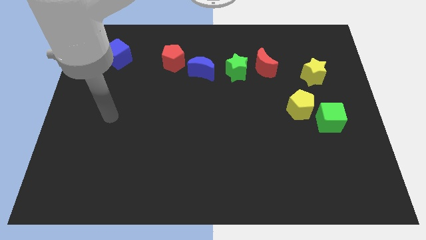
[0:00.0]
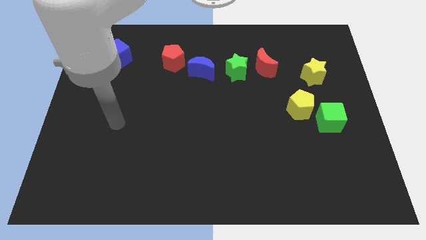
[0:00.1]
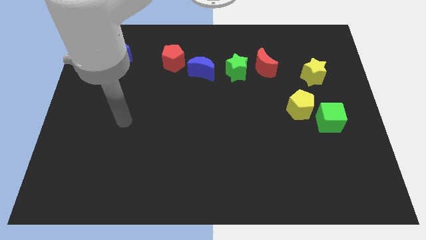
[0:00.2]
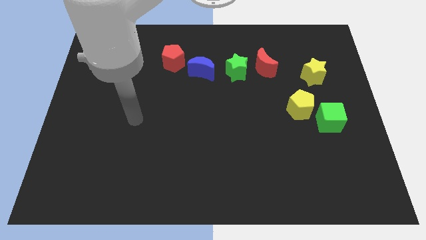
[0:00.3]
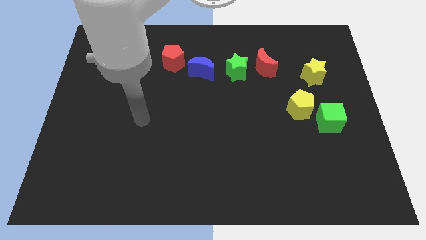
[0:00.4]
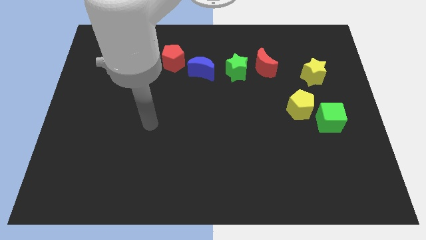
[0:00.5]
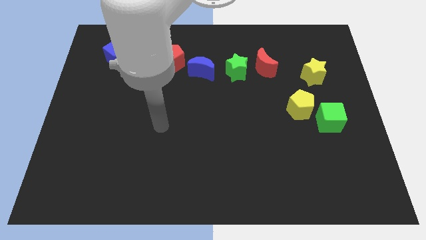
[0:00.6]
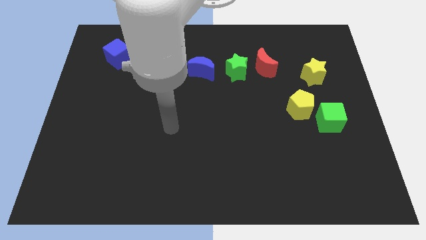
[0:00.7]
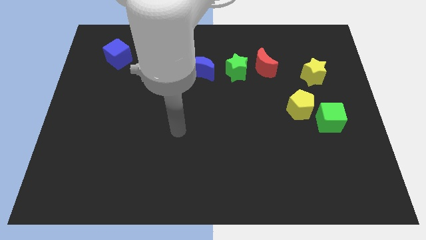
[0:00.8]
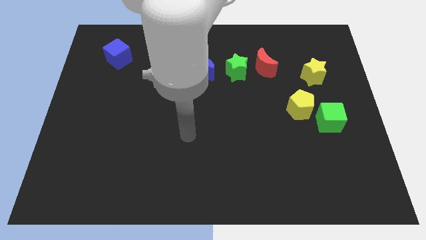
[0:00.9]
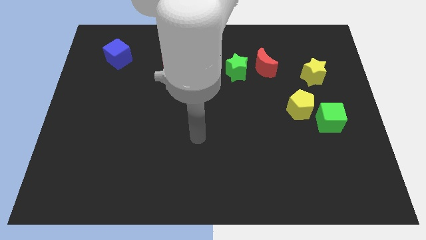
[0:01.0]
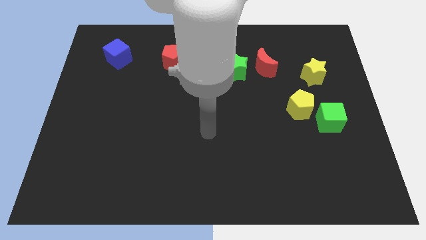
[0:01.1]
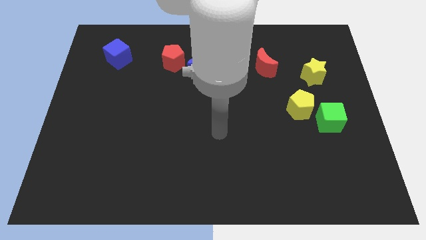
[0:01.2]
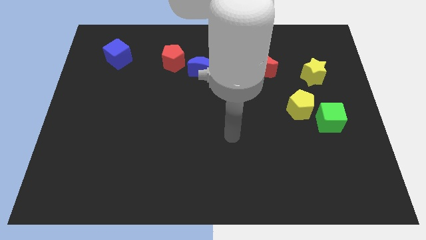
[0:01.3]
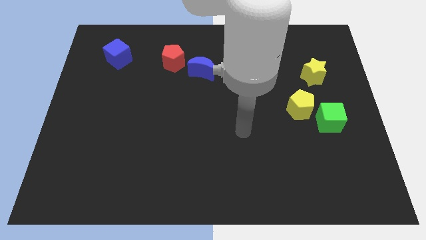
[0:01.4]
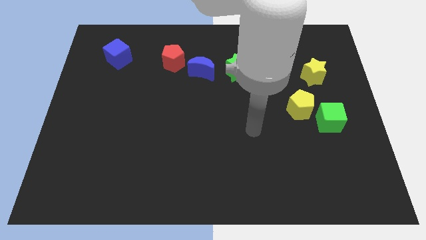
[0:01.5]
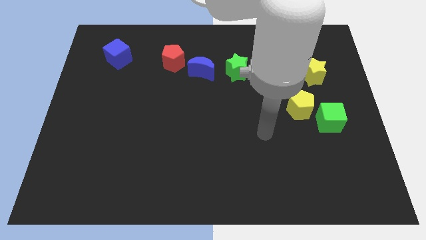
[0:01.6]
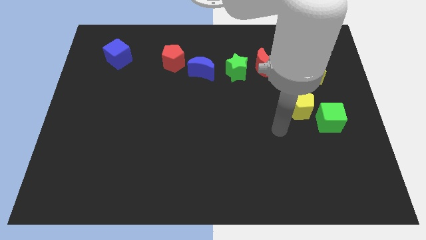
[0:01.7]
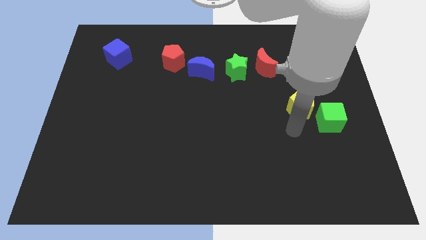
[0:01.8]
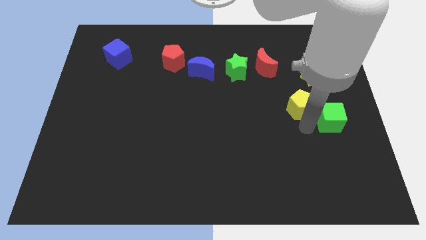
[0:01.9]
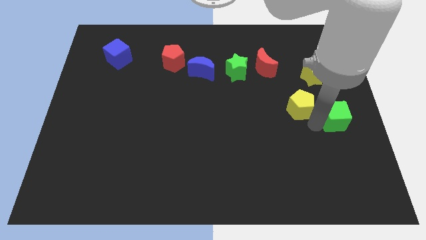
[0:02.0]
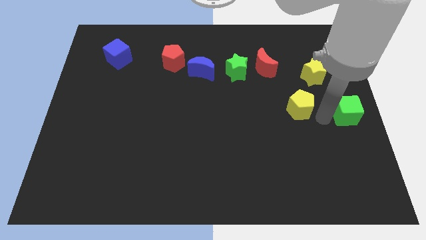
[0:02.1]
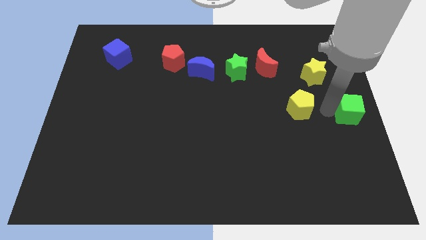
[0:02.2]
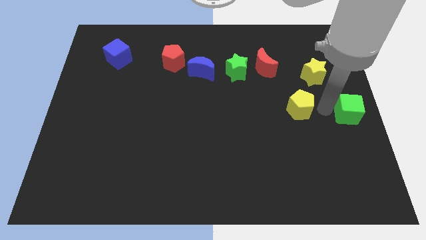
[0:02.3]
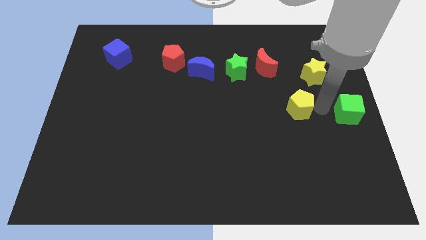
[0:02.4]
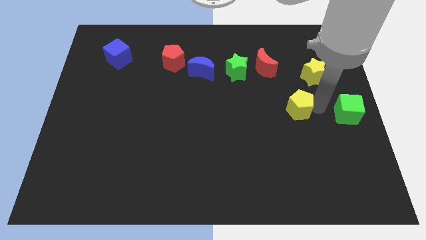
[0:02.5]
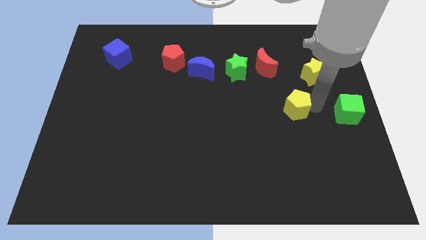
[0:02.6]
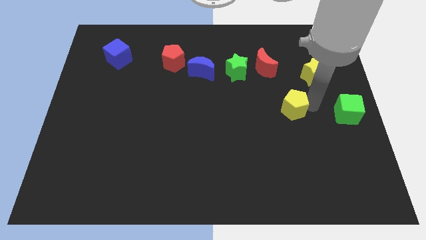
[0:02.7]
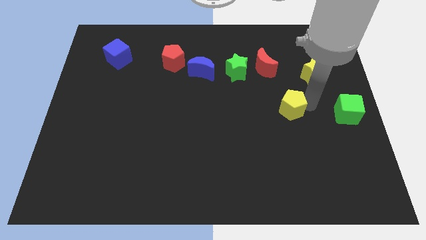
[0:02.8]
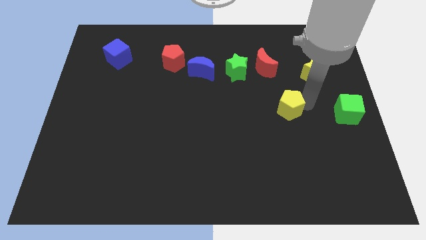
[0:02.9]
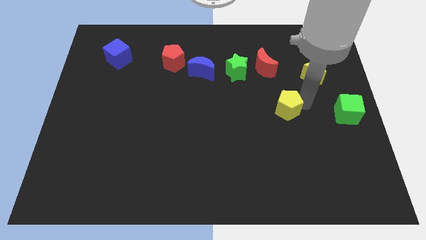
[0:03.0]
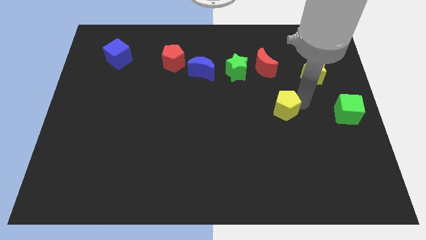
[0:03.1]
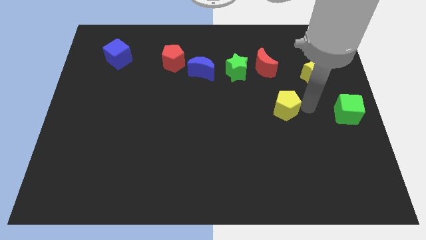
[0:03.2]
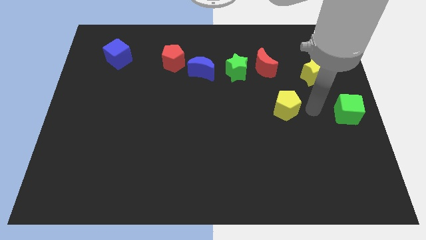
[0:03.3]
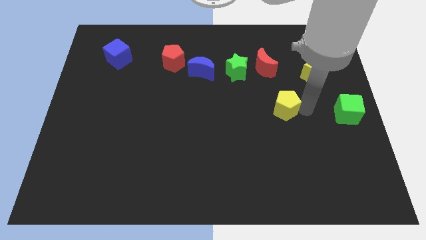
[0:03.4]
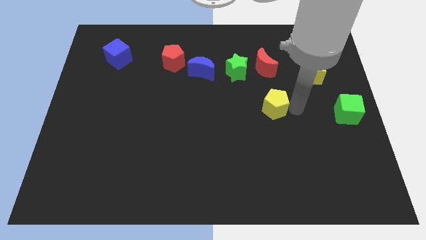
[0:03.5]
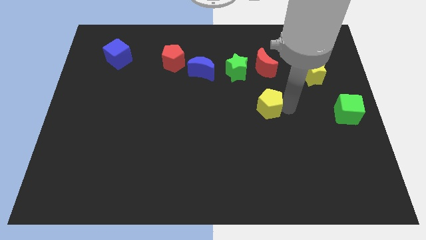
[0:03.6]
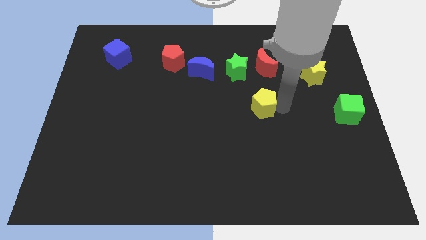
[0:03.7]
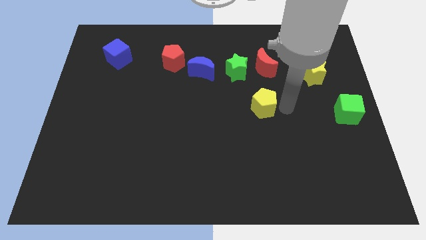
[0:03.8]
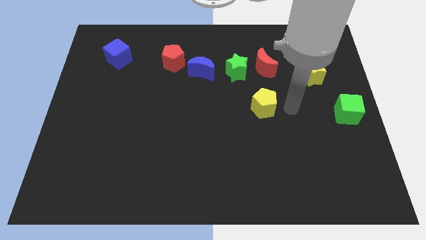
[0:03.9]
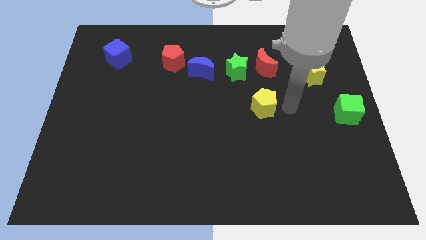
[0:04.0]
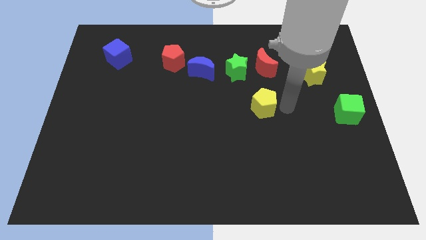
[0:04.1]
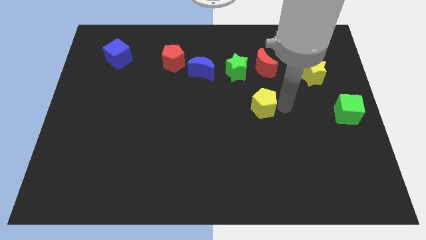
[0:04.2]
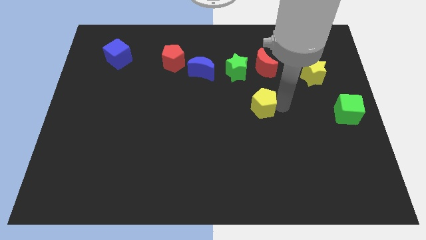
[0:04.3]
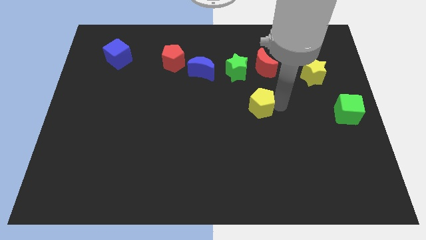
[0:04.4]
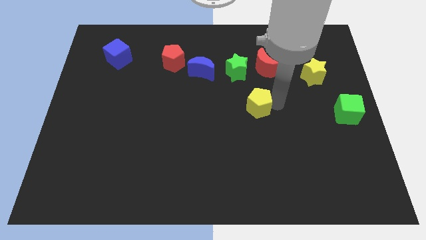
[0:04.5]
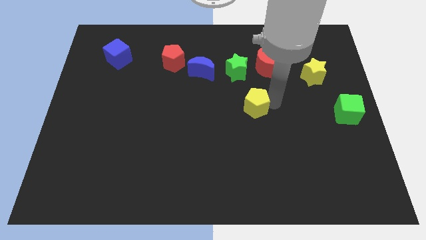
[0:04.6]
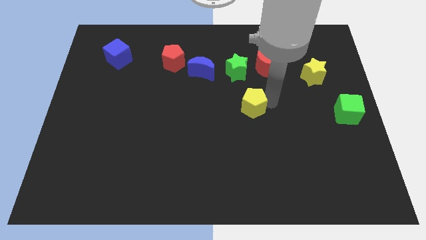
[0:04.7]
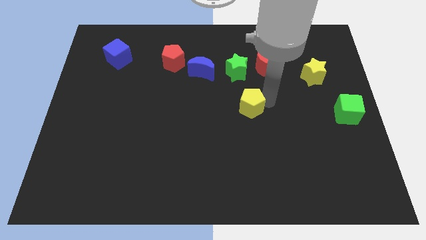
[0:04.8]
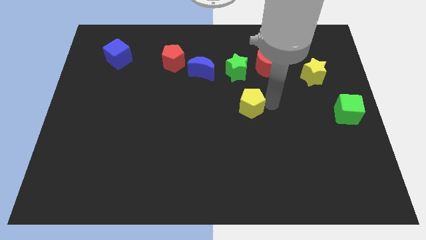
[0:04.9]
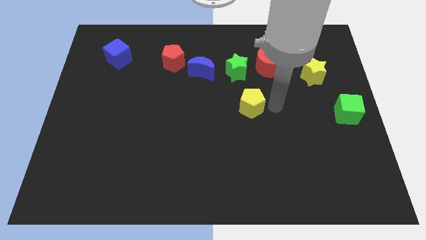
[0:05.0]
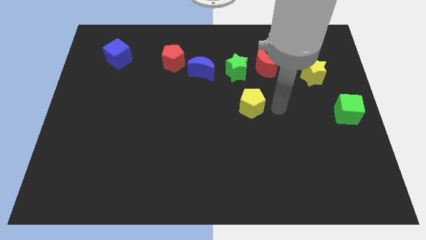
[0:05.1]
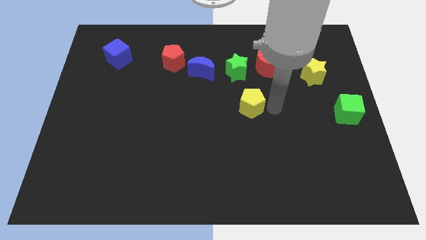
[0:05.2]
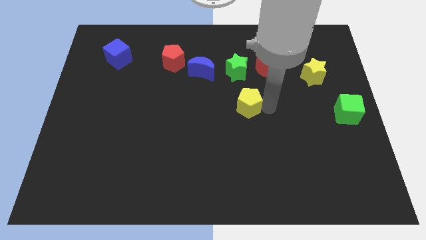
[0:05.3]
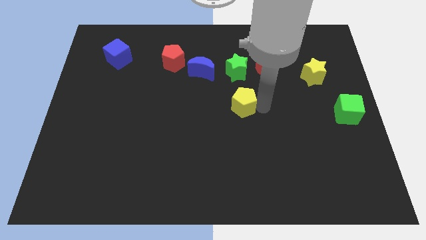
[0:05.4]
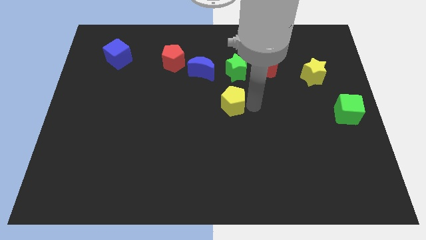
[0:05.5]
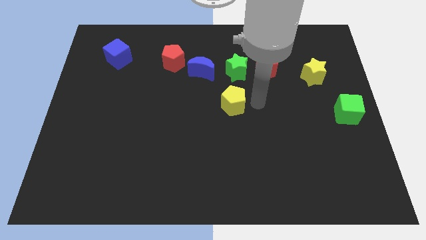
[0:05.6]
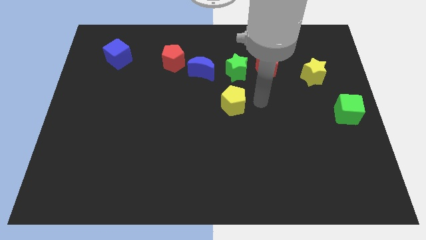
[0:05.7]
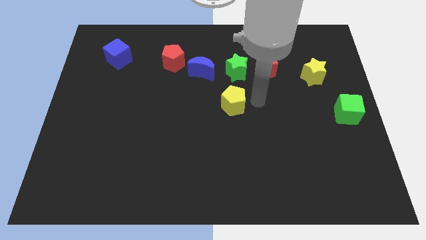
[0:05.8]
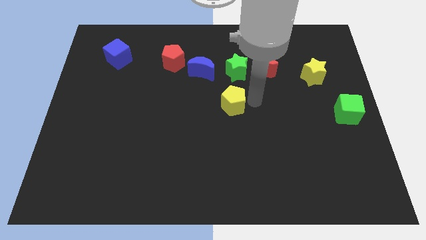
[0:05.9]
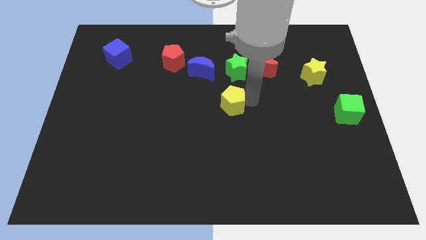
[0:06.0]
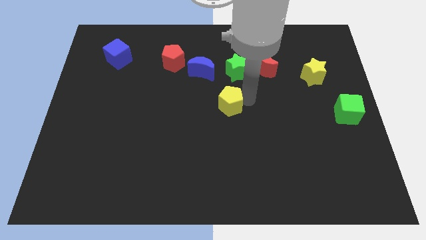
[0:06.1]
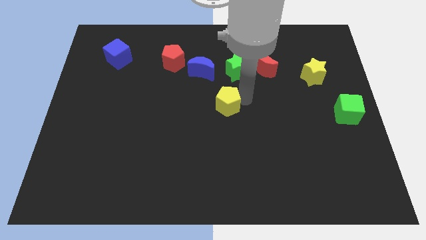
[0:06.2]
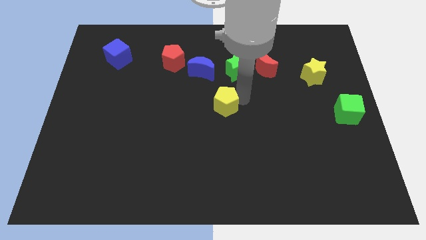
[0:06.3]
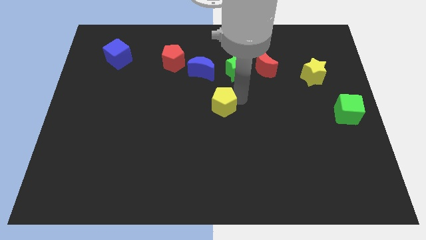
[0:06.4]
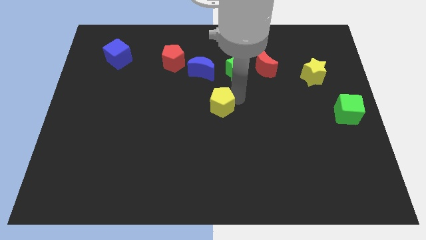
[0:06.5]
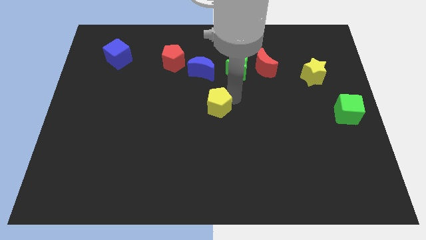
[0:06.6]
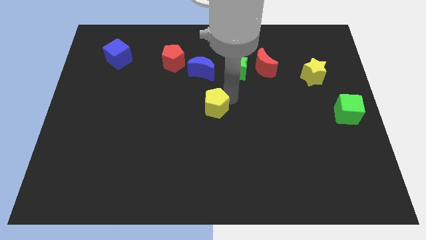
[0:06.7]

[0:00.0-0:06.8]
move the yellow pentagon to the left

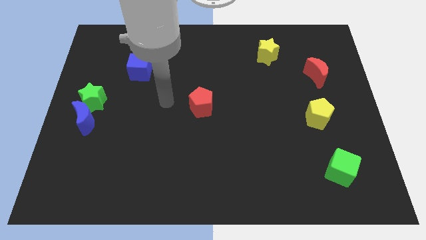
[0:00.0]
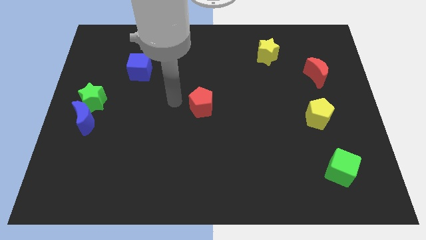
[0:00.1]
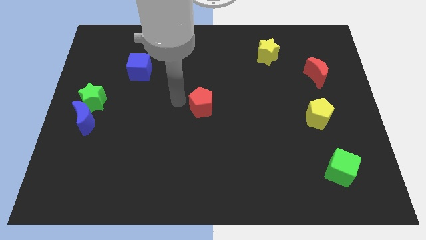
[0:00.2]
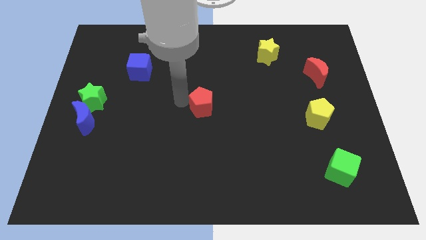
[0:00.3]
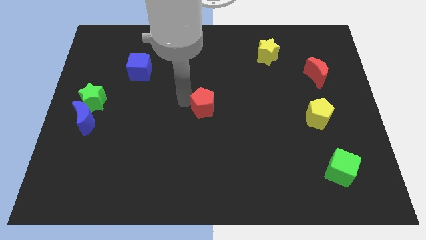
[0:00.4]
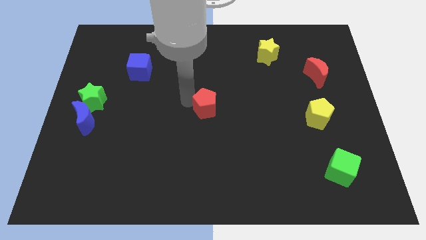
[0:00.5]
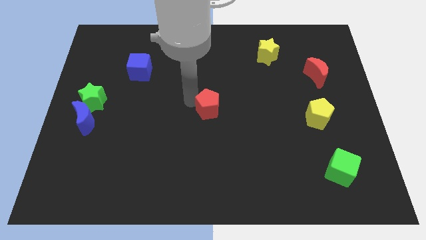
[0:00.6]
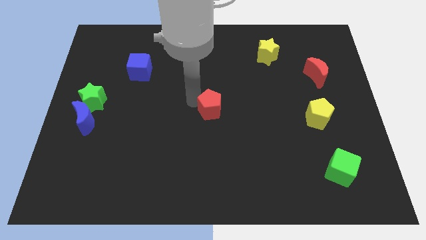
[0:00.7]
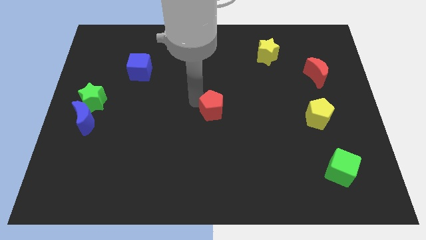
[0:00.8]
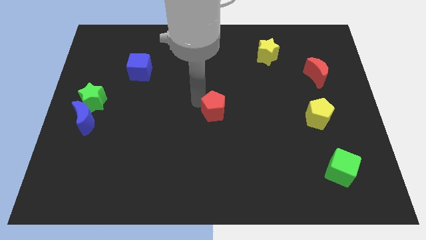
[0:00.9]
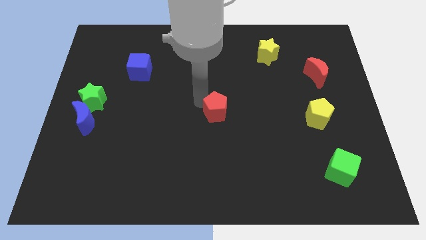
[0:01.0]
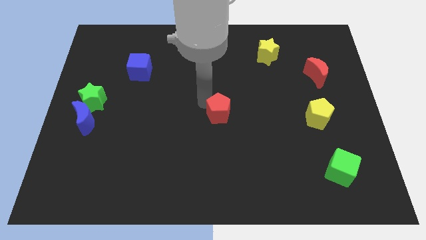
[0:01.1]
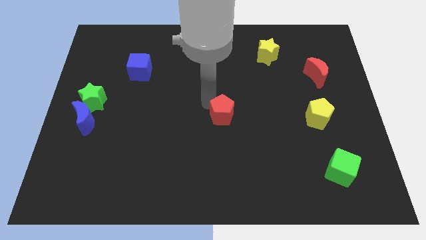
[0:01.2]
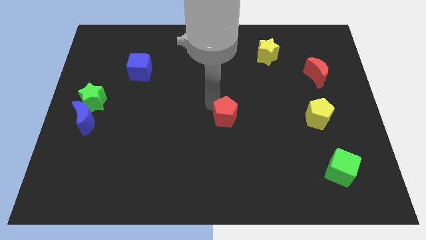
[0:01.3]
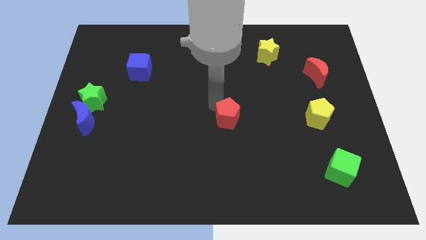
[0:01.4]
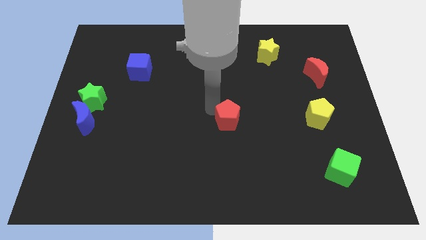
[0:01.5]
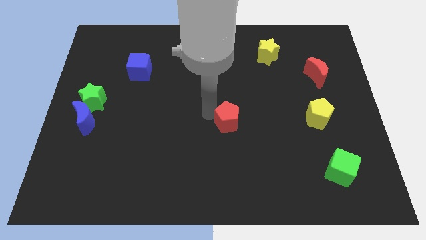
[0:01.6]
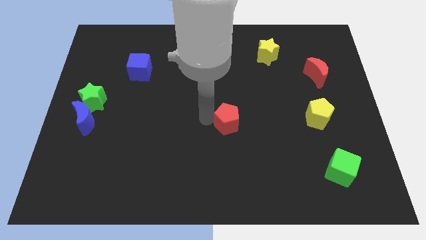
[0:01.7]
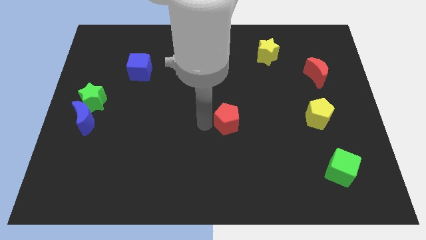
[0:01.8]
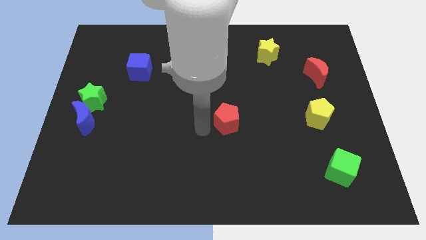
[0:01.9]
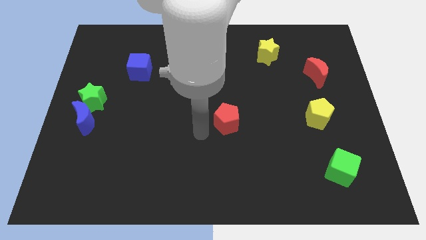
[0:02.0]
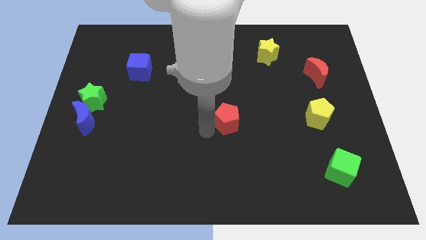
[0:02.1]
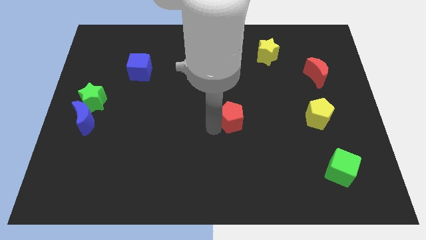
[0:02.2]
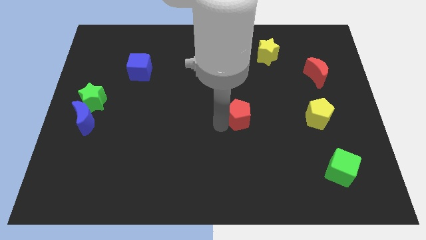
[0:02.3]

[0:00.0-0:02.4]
slightly slide the red pentagon to the right
